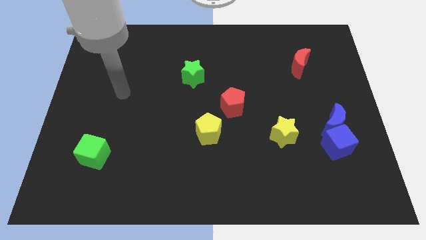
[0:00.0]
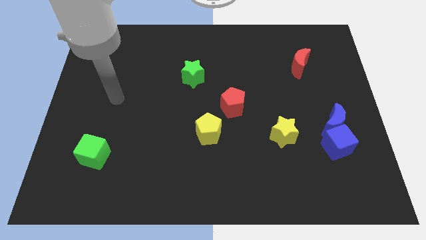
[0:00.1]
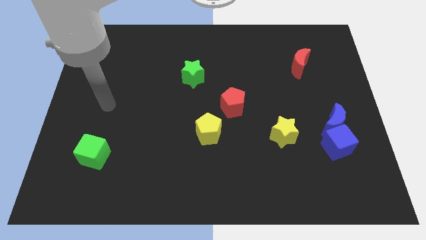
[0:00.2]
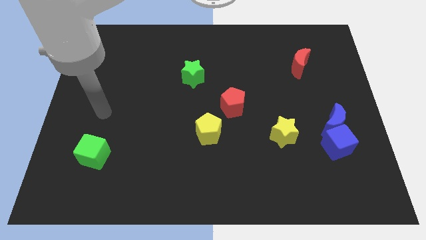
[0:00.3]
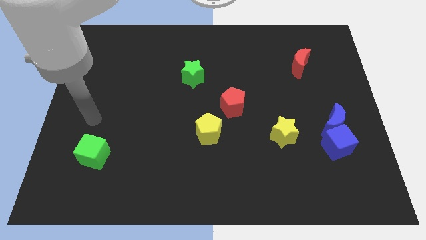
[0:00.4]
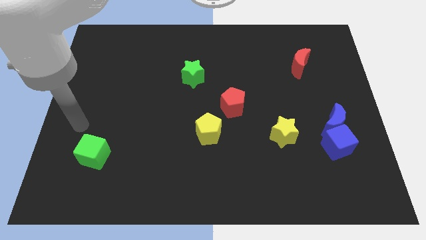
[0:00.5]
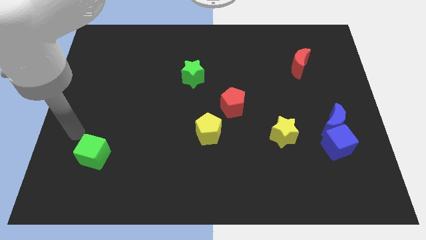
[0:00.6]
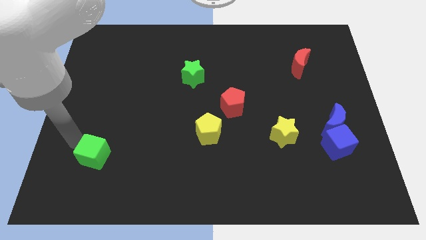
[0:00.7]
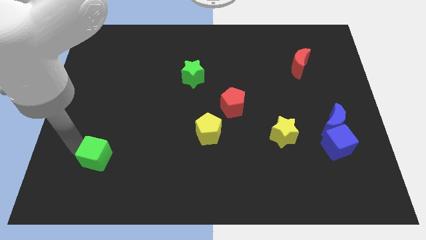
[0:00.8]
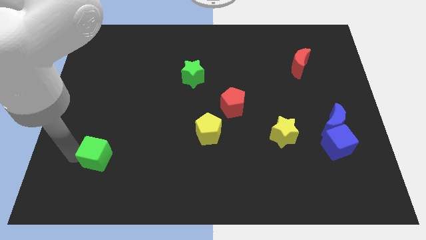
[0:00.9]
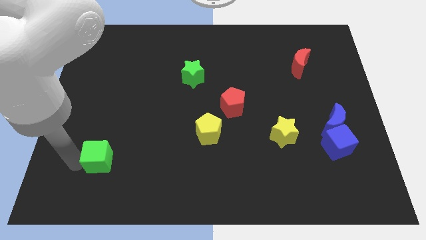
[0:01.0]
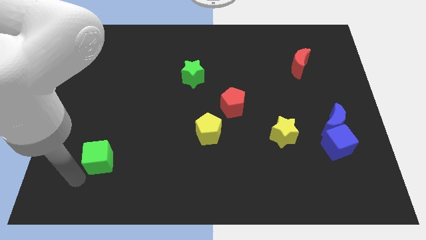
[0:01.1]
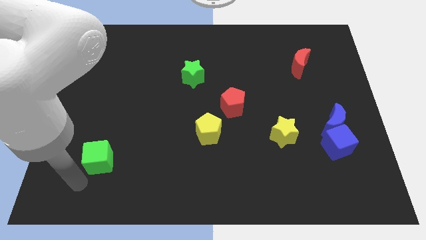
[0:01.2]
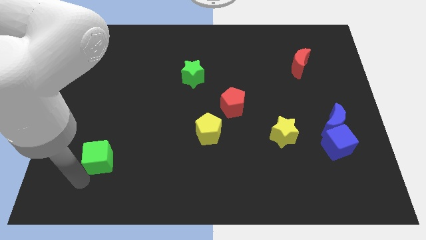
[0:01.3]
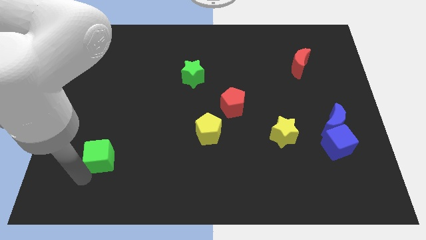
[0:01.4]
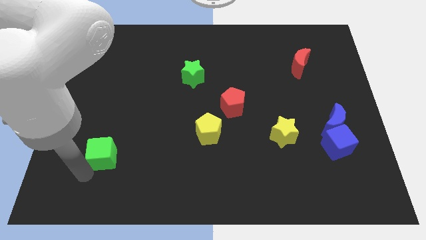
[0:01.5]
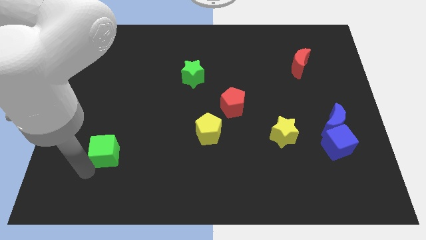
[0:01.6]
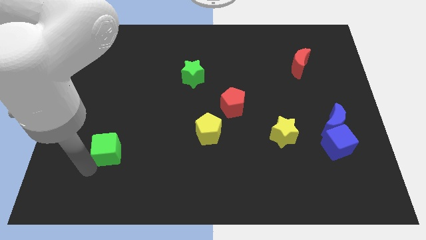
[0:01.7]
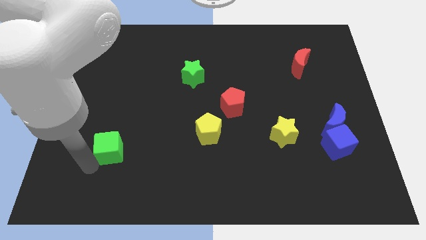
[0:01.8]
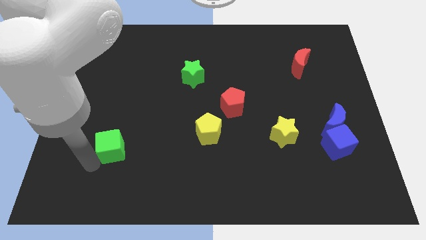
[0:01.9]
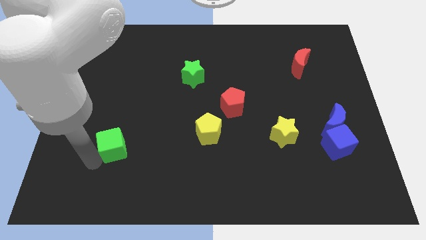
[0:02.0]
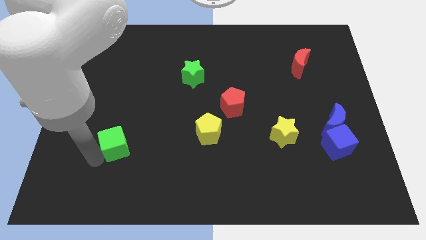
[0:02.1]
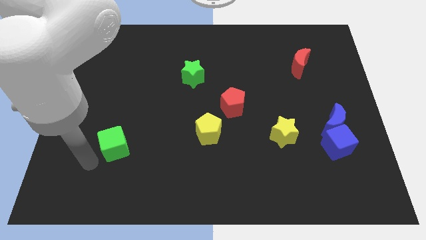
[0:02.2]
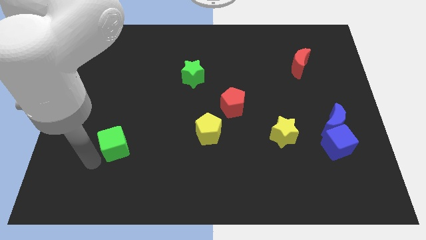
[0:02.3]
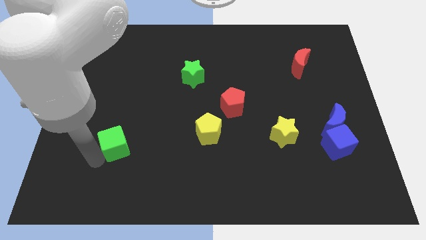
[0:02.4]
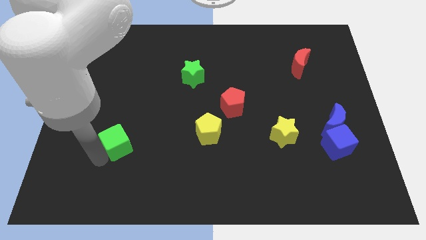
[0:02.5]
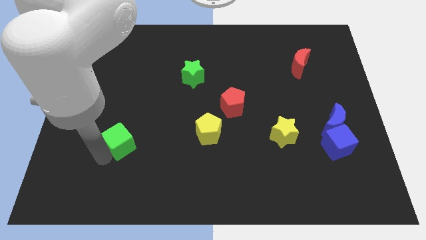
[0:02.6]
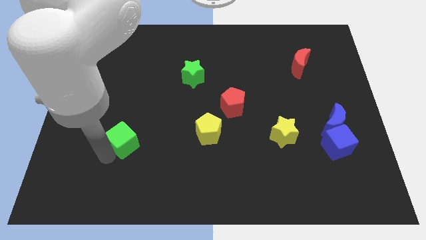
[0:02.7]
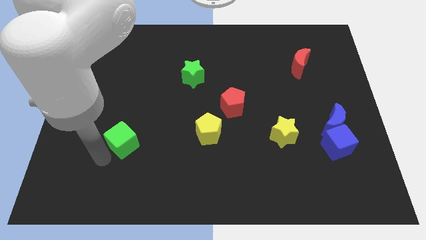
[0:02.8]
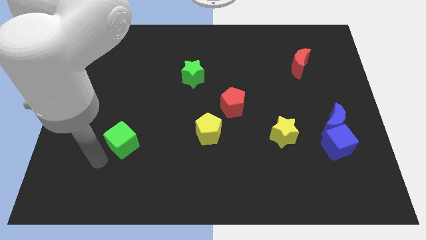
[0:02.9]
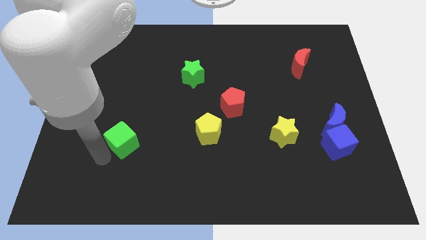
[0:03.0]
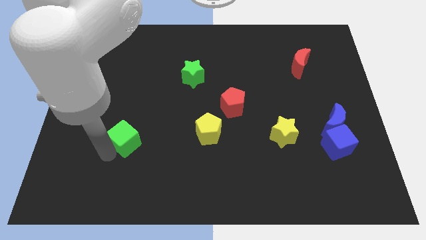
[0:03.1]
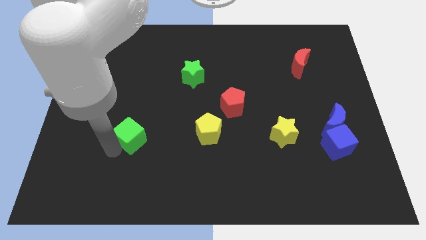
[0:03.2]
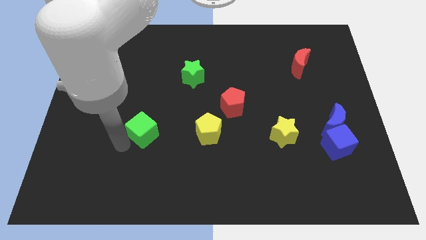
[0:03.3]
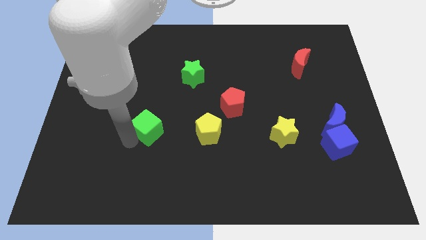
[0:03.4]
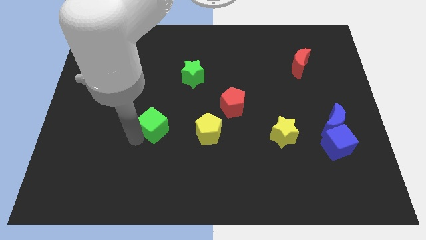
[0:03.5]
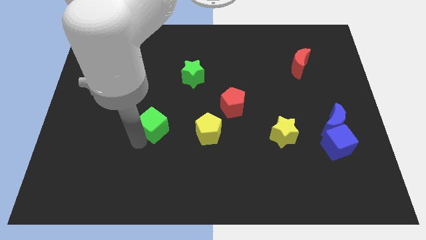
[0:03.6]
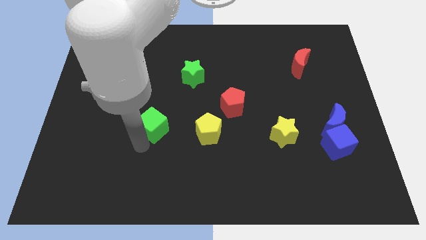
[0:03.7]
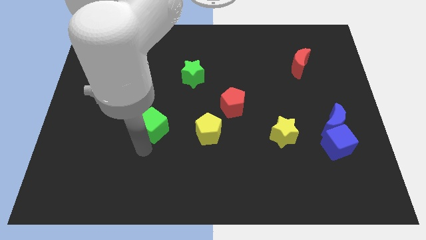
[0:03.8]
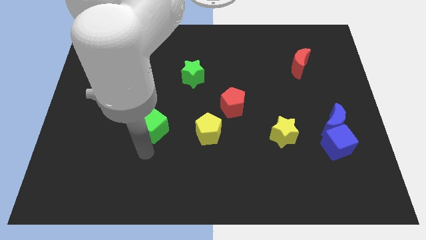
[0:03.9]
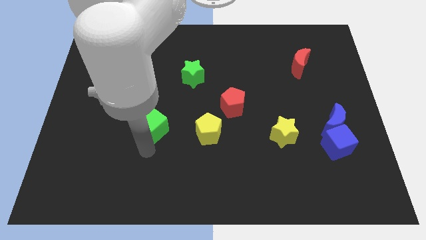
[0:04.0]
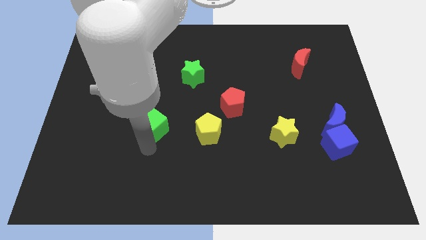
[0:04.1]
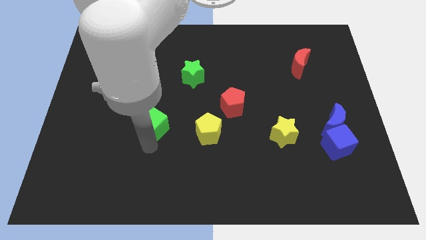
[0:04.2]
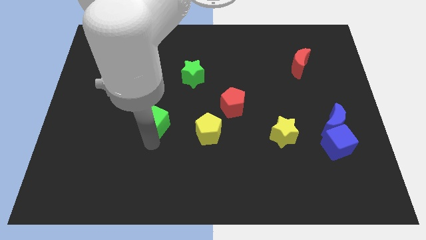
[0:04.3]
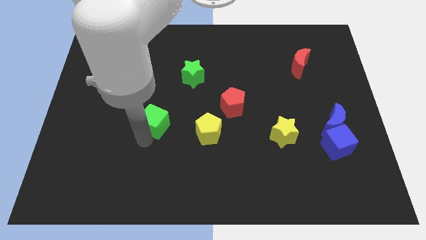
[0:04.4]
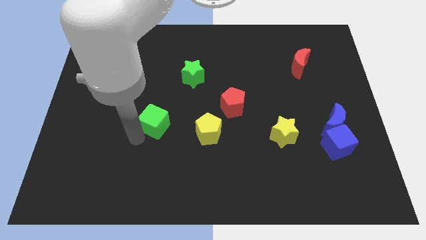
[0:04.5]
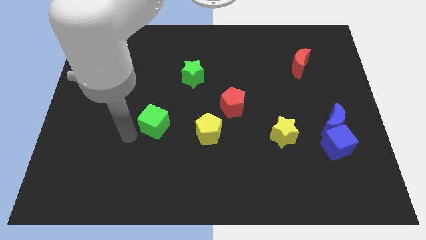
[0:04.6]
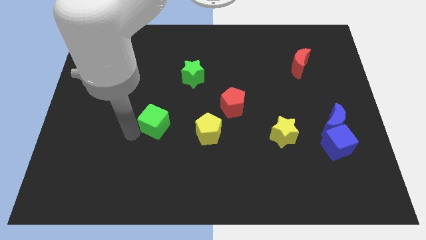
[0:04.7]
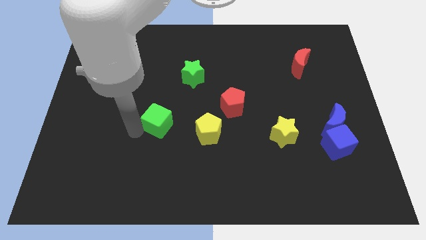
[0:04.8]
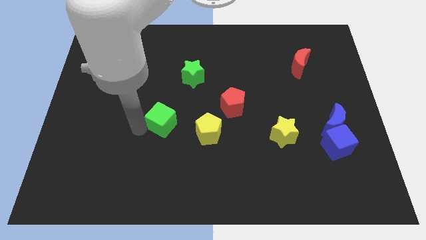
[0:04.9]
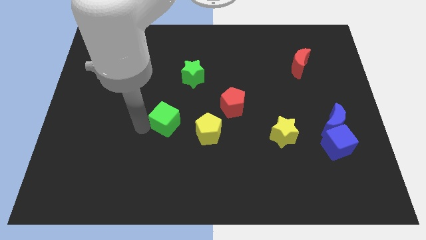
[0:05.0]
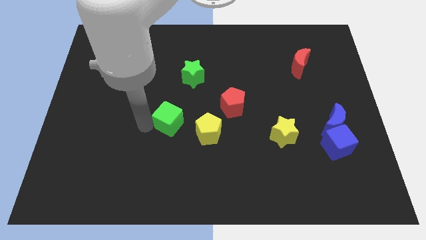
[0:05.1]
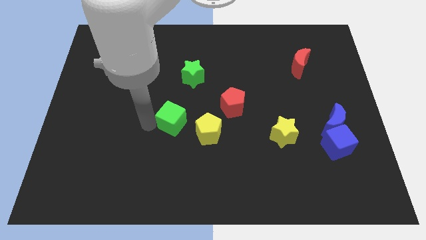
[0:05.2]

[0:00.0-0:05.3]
move the green cube to the bottom side of the green star

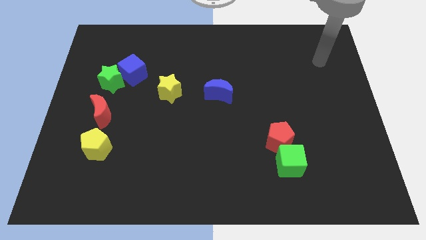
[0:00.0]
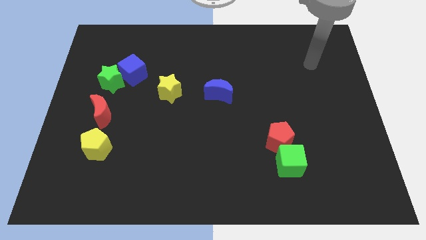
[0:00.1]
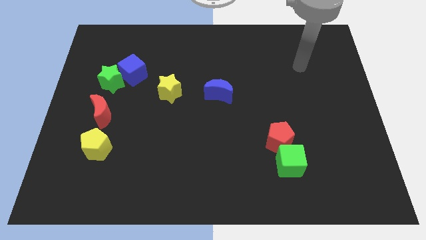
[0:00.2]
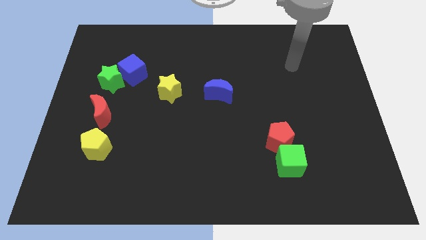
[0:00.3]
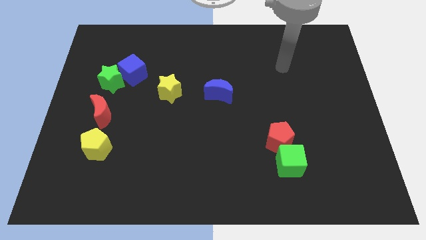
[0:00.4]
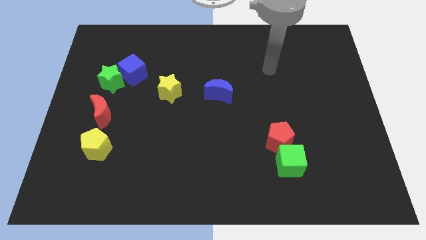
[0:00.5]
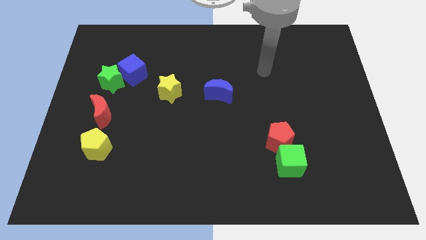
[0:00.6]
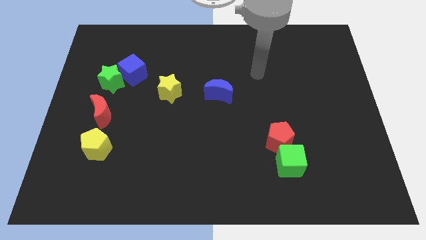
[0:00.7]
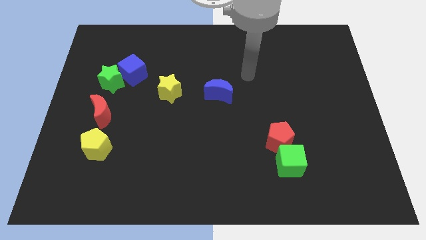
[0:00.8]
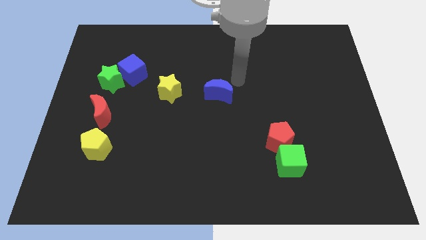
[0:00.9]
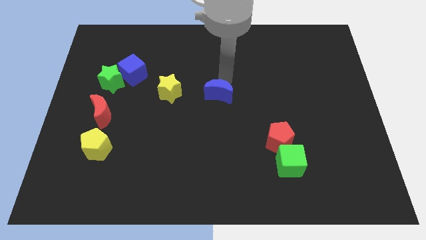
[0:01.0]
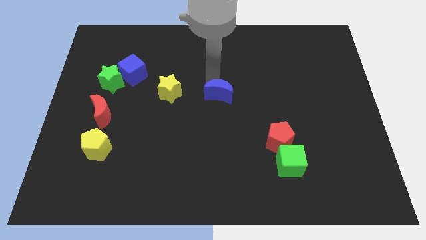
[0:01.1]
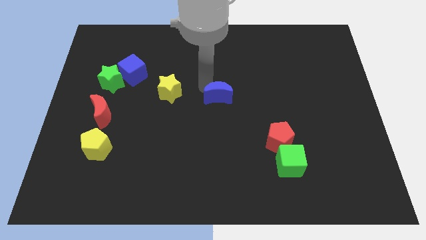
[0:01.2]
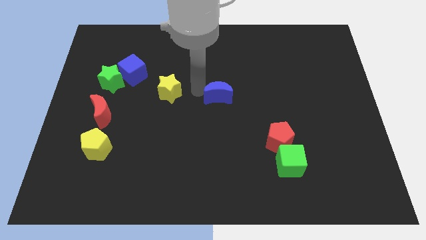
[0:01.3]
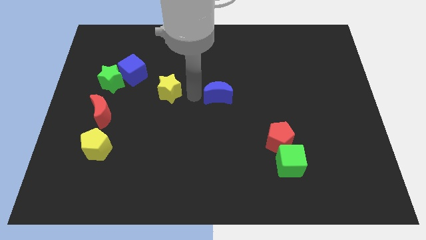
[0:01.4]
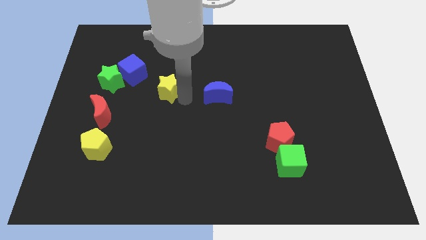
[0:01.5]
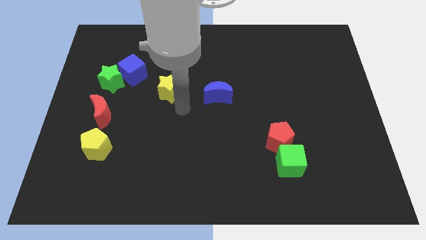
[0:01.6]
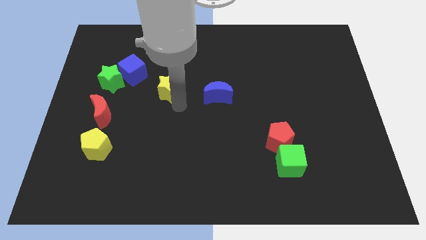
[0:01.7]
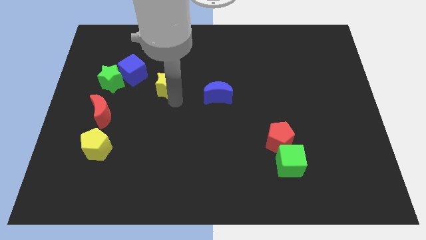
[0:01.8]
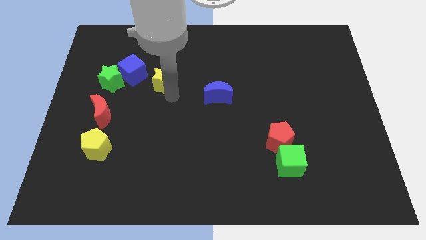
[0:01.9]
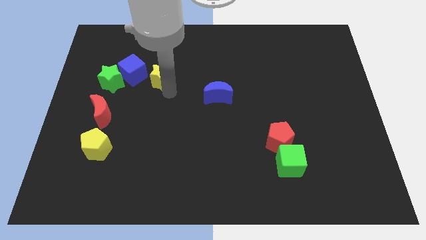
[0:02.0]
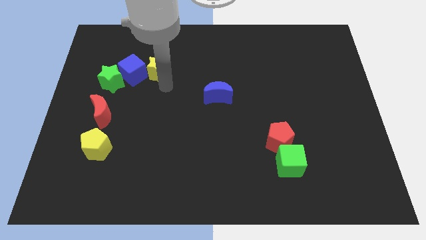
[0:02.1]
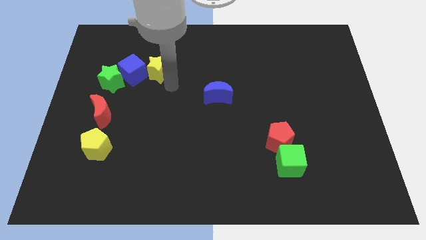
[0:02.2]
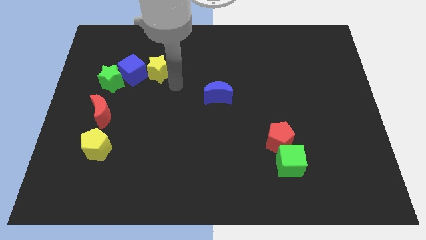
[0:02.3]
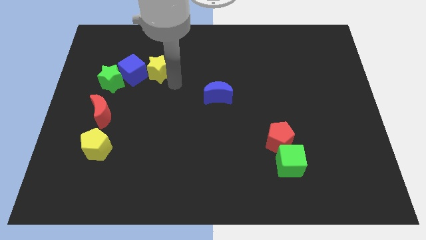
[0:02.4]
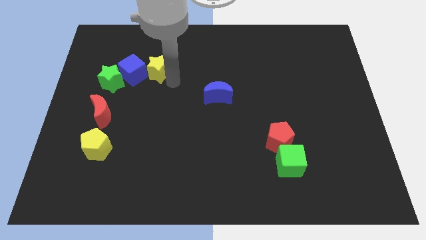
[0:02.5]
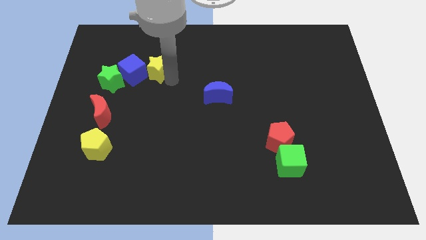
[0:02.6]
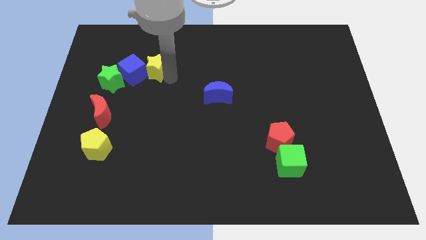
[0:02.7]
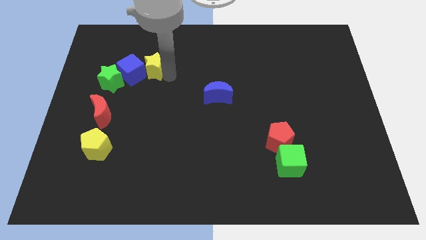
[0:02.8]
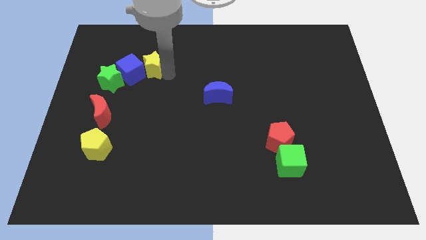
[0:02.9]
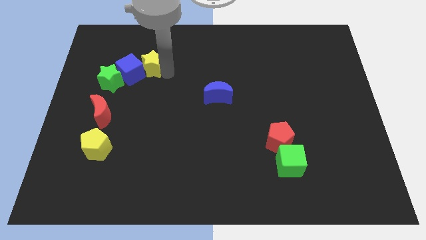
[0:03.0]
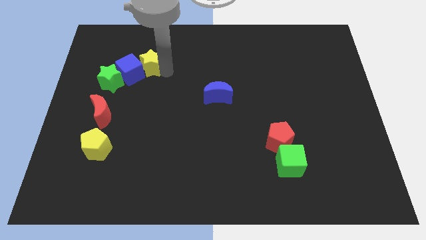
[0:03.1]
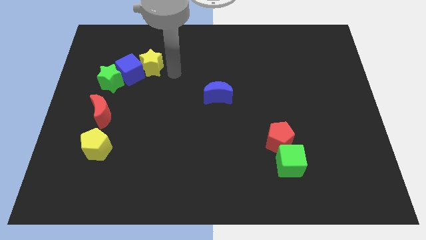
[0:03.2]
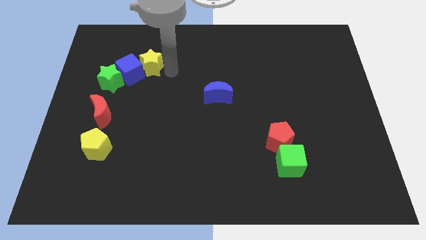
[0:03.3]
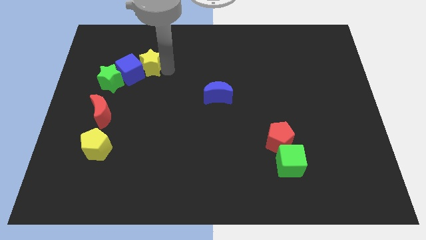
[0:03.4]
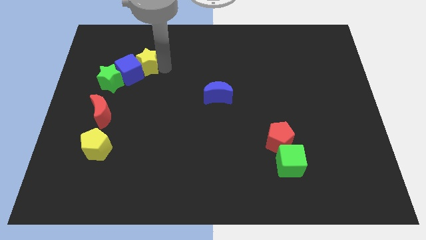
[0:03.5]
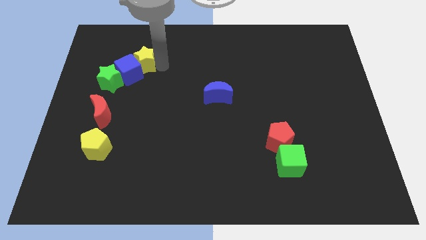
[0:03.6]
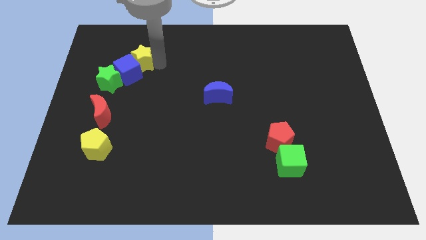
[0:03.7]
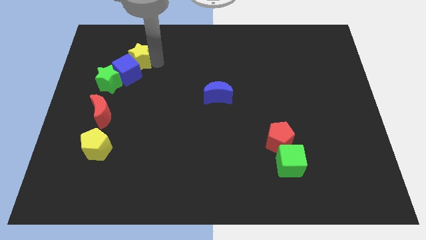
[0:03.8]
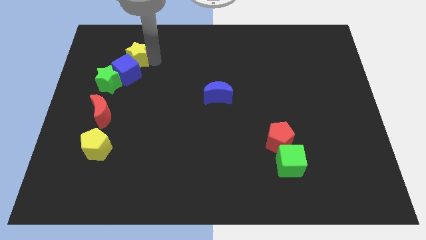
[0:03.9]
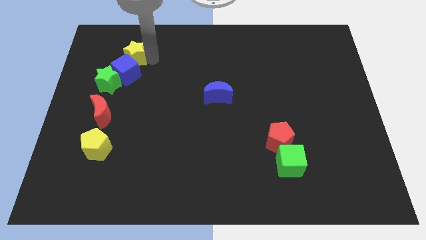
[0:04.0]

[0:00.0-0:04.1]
put the yellow star to the top left side of the blue cube
